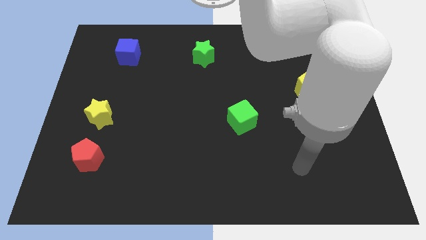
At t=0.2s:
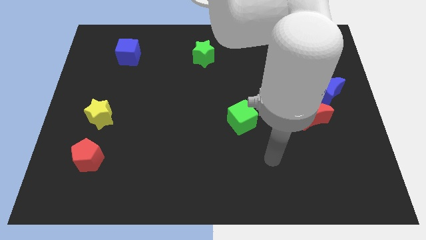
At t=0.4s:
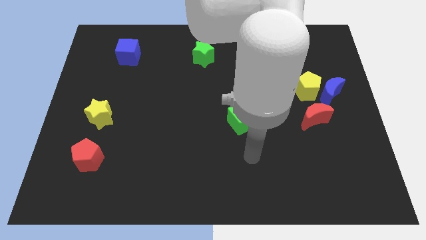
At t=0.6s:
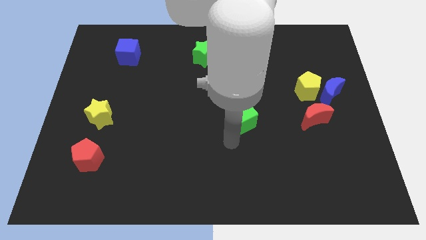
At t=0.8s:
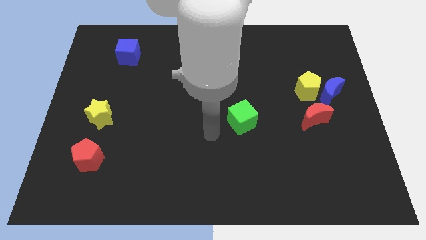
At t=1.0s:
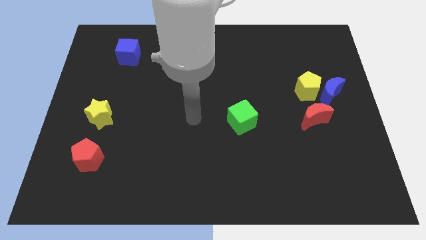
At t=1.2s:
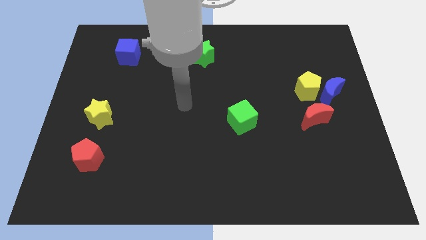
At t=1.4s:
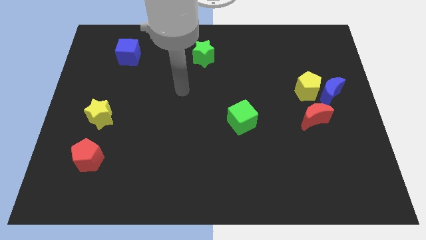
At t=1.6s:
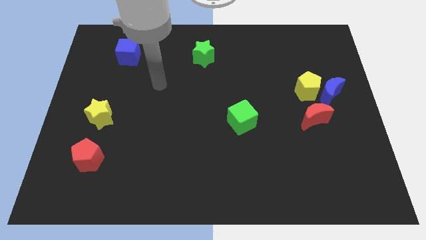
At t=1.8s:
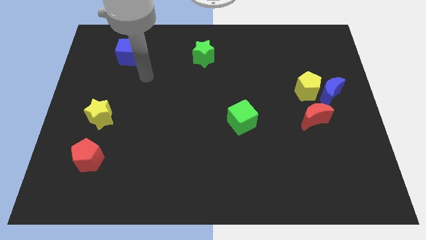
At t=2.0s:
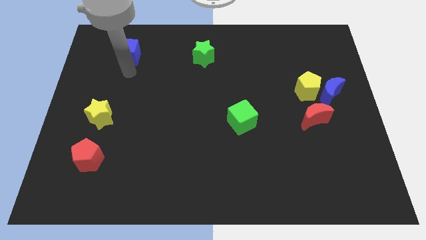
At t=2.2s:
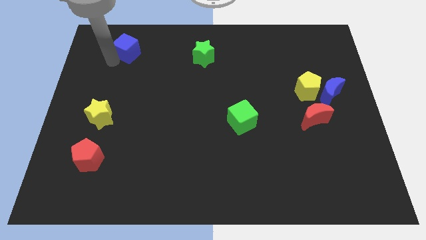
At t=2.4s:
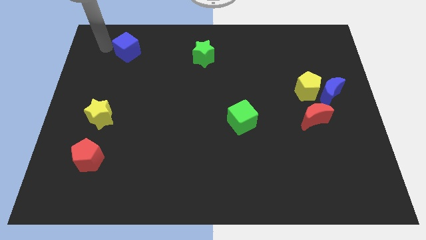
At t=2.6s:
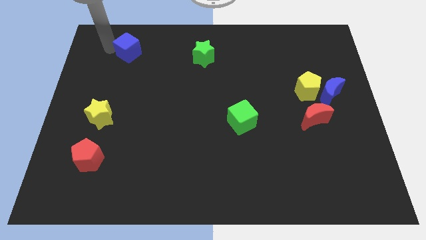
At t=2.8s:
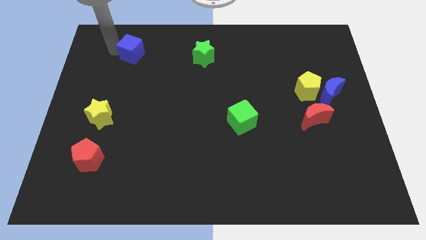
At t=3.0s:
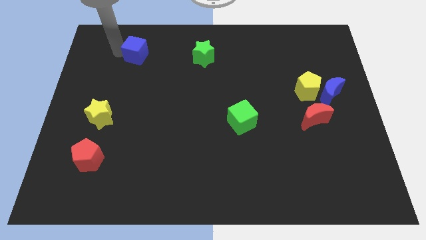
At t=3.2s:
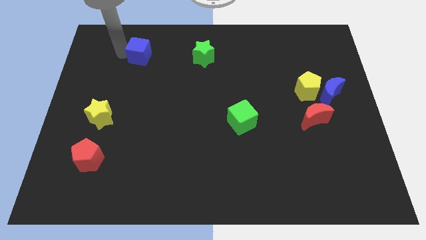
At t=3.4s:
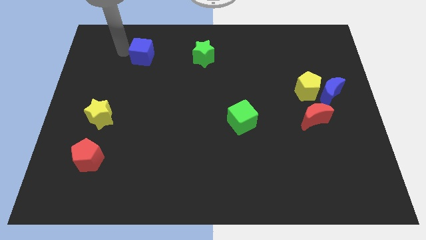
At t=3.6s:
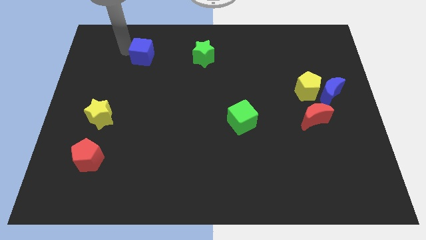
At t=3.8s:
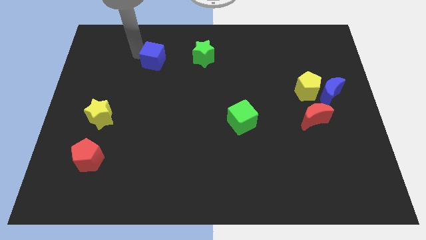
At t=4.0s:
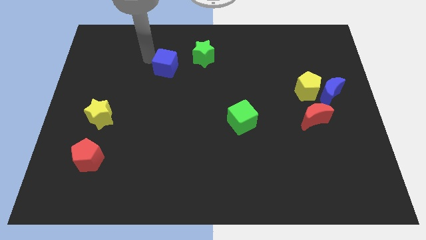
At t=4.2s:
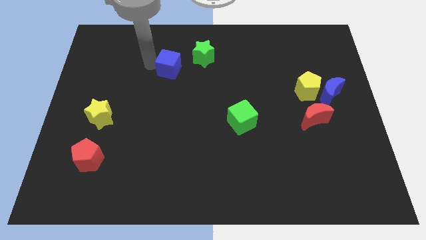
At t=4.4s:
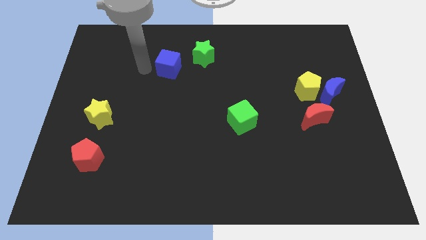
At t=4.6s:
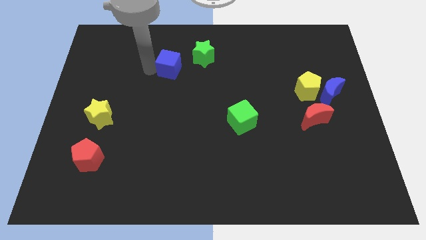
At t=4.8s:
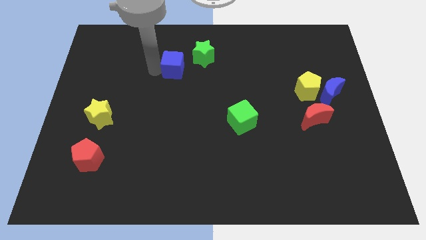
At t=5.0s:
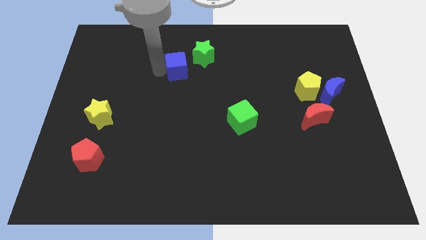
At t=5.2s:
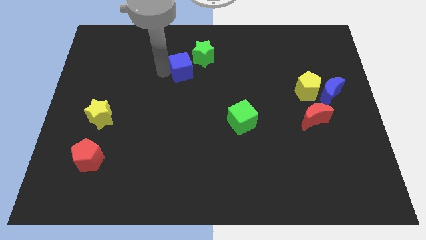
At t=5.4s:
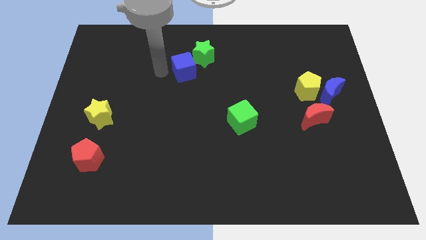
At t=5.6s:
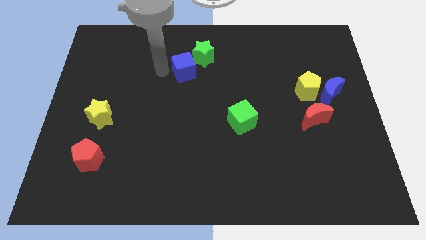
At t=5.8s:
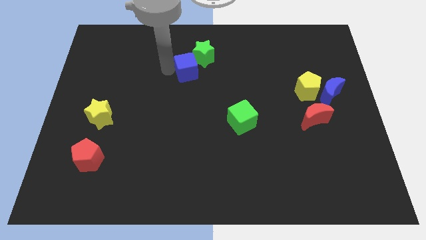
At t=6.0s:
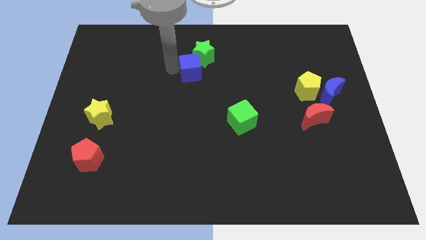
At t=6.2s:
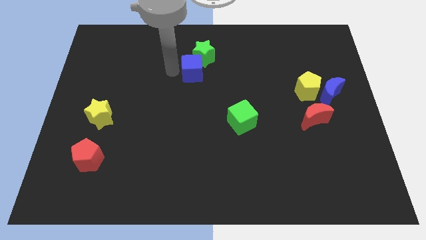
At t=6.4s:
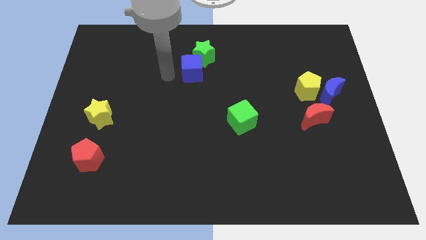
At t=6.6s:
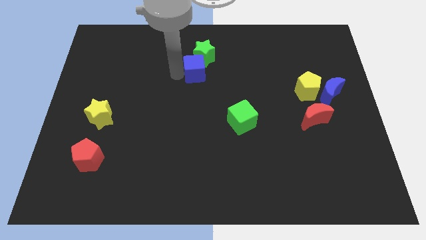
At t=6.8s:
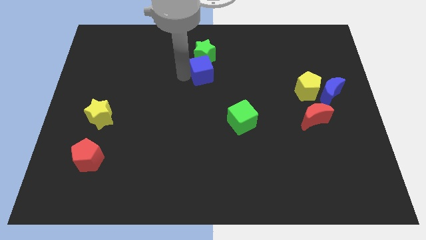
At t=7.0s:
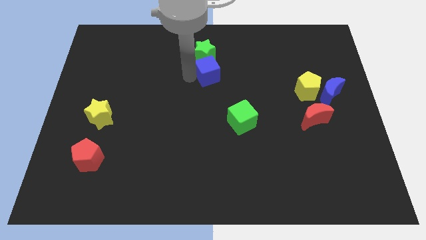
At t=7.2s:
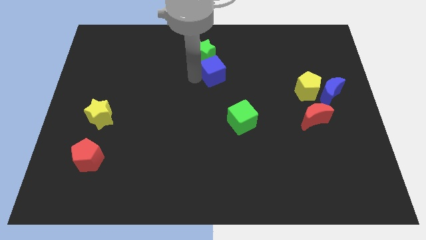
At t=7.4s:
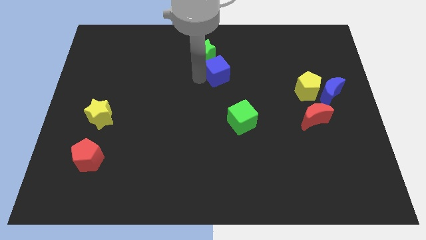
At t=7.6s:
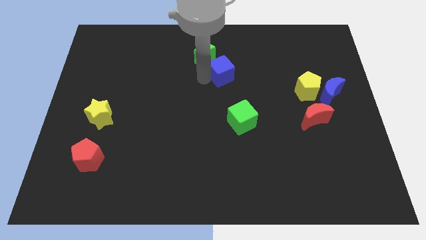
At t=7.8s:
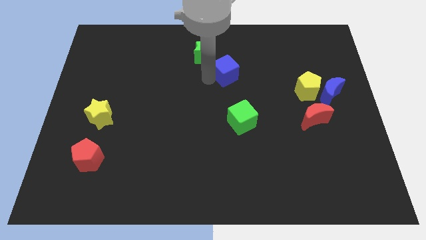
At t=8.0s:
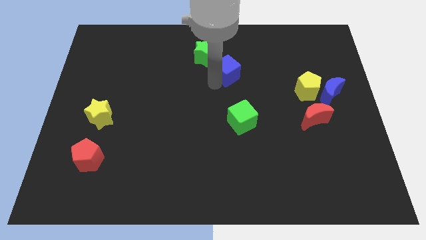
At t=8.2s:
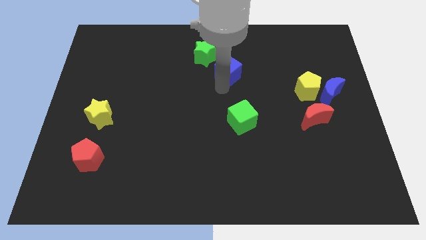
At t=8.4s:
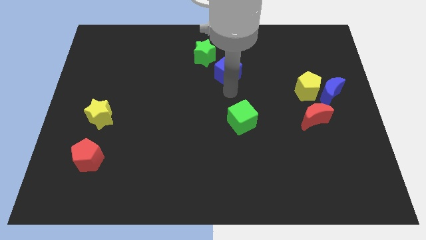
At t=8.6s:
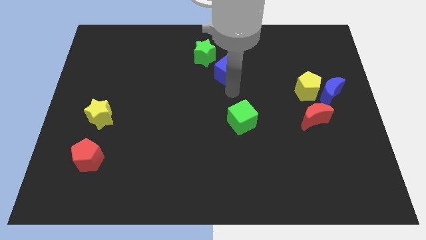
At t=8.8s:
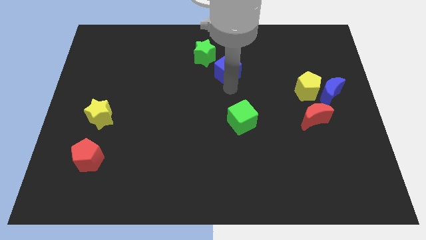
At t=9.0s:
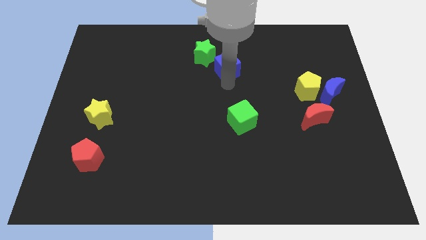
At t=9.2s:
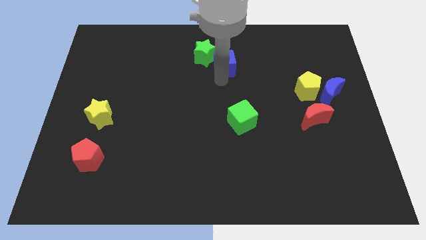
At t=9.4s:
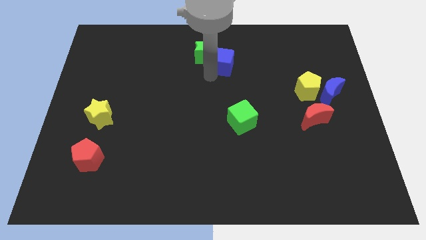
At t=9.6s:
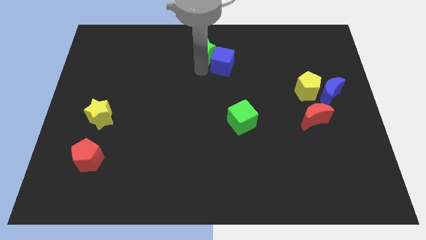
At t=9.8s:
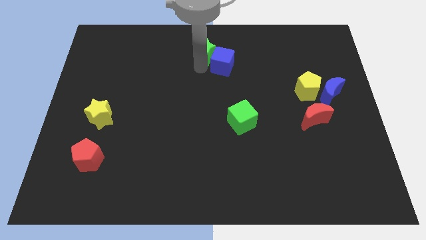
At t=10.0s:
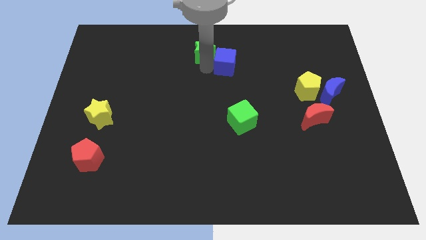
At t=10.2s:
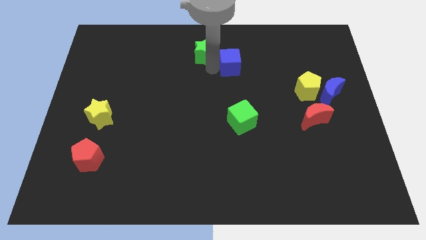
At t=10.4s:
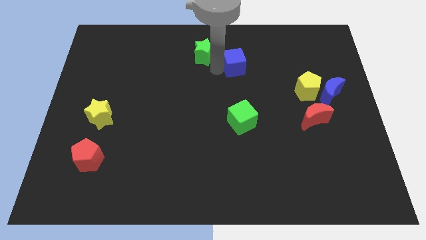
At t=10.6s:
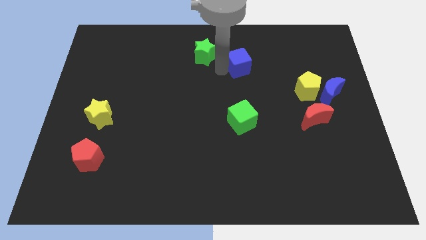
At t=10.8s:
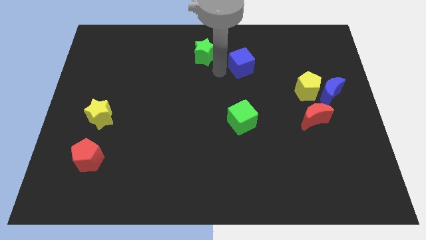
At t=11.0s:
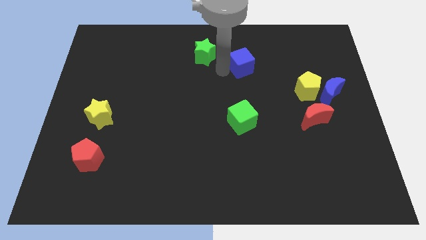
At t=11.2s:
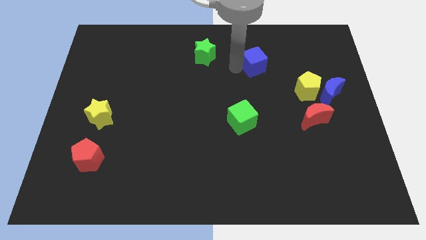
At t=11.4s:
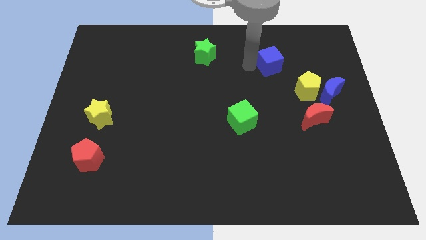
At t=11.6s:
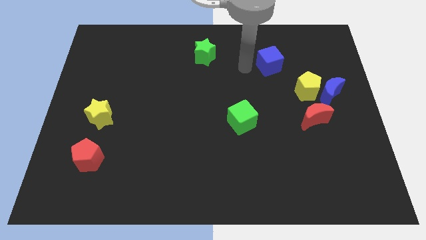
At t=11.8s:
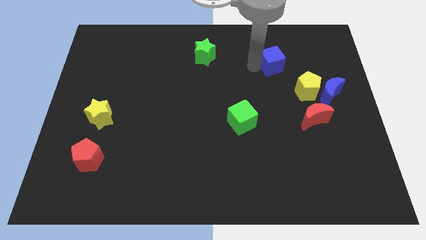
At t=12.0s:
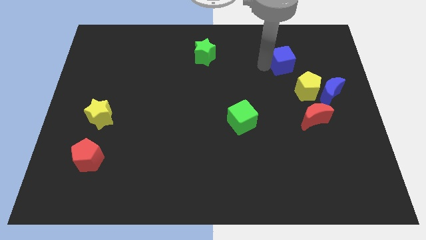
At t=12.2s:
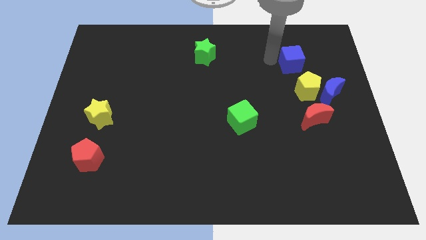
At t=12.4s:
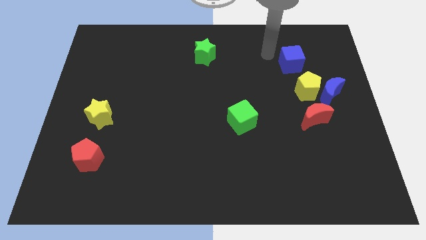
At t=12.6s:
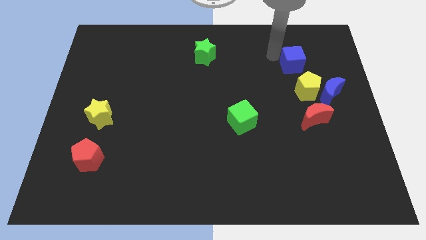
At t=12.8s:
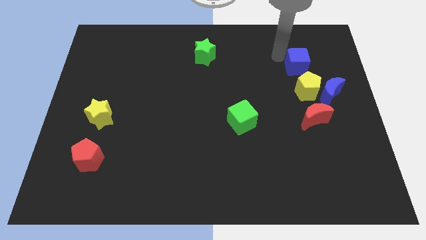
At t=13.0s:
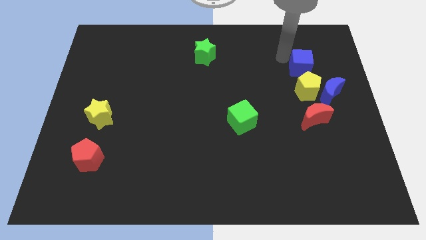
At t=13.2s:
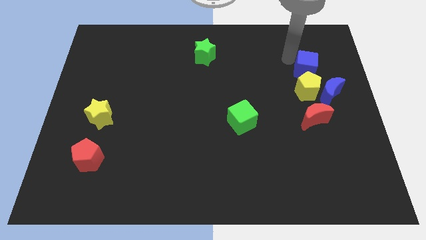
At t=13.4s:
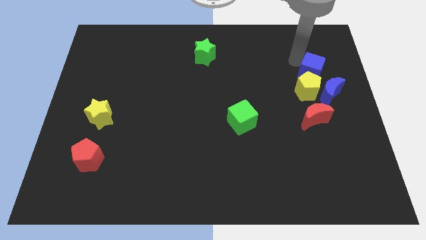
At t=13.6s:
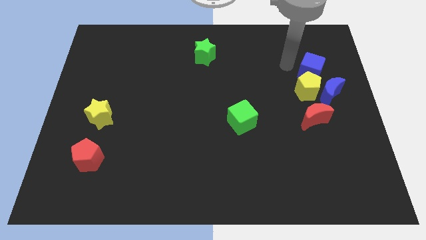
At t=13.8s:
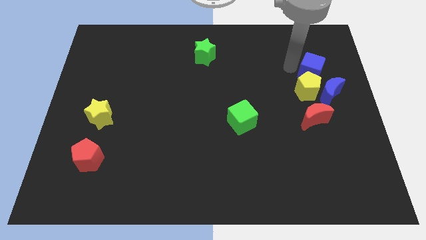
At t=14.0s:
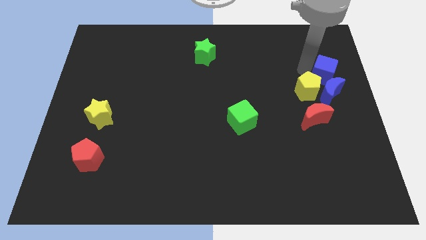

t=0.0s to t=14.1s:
push the blue cube to the right side
